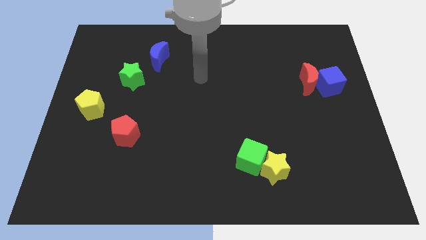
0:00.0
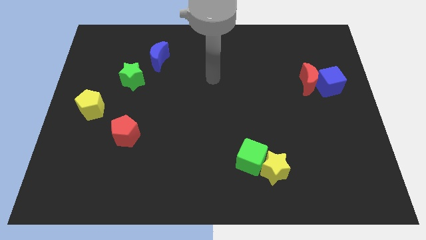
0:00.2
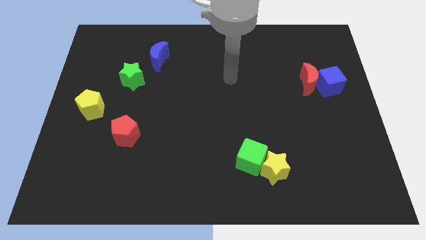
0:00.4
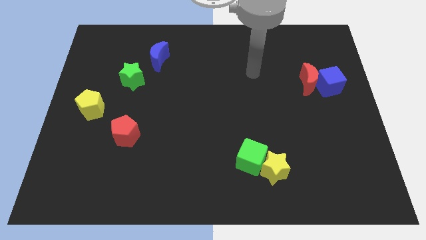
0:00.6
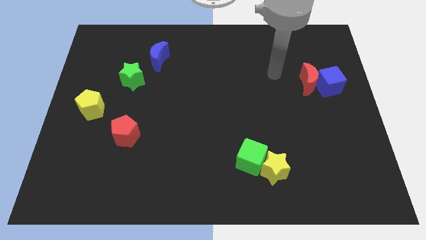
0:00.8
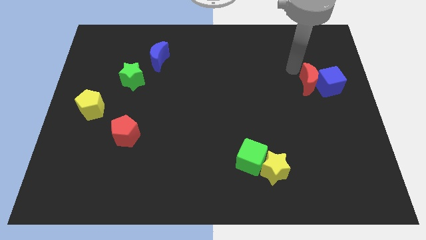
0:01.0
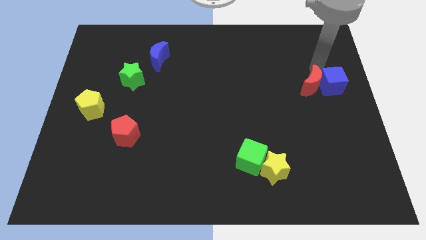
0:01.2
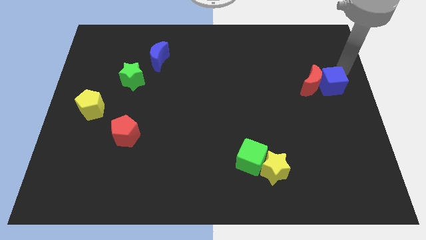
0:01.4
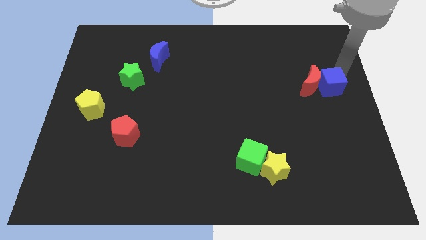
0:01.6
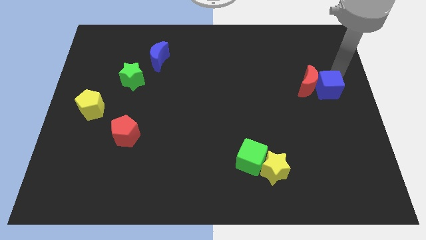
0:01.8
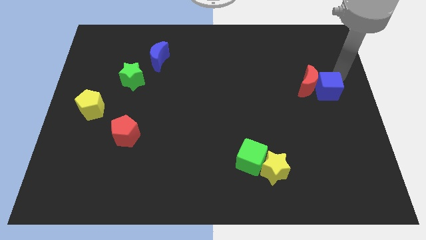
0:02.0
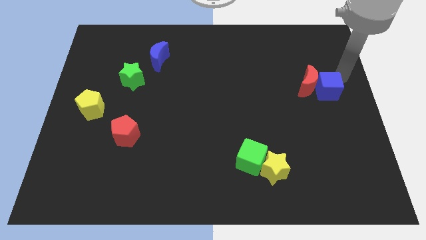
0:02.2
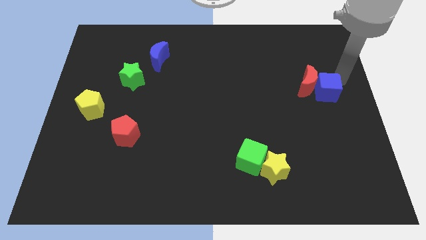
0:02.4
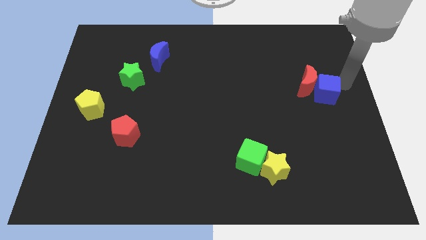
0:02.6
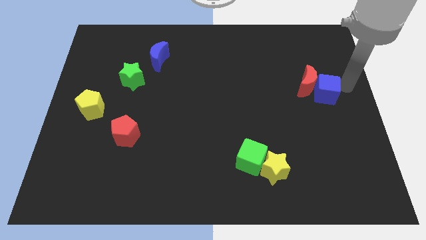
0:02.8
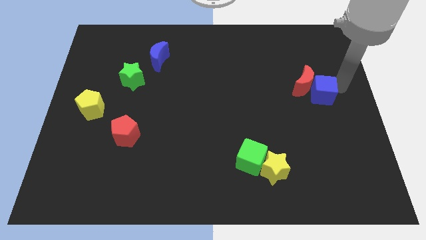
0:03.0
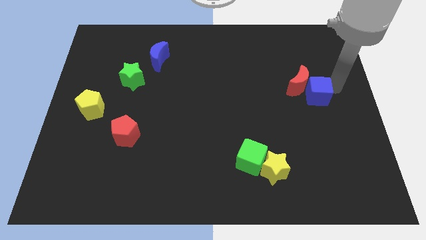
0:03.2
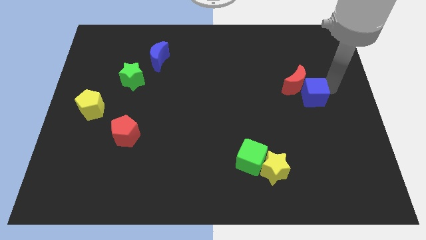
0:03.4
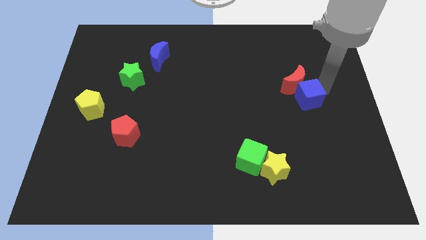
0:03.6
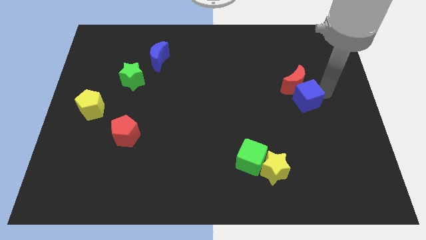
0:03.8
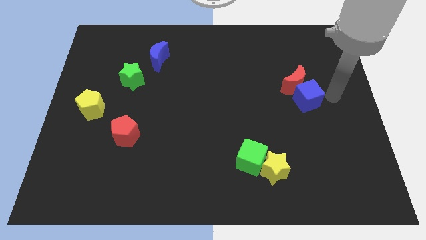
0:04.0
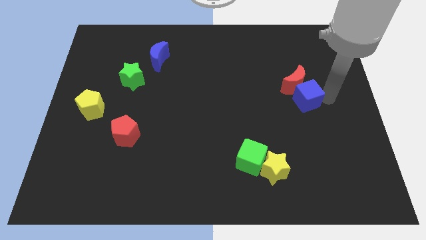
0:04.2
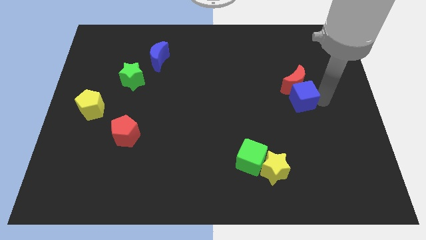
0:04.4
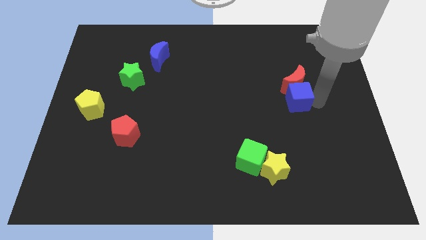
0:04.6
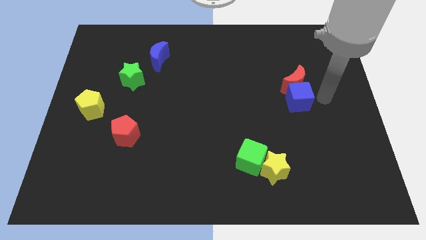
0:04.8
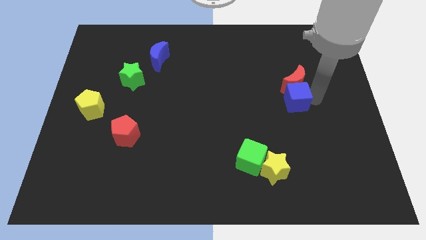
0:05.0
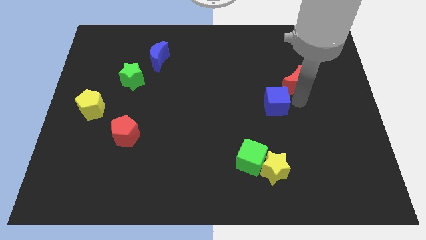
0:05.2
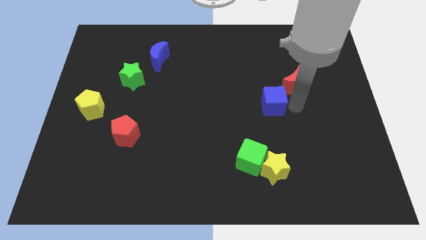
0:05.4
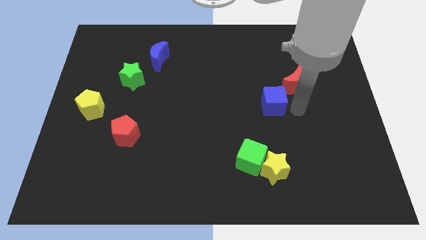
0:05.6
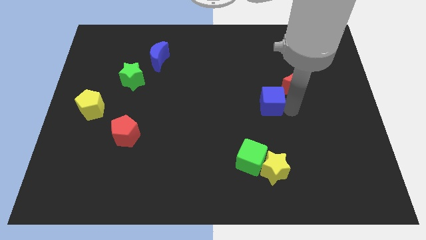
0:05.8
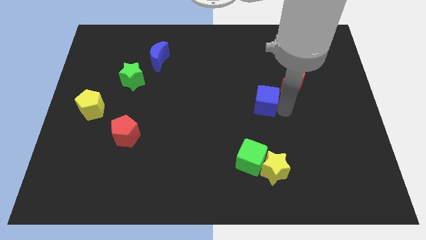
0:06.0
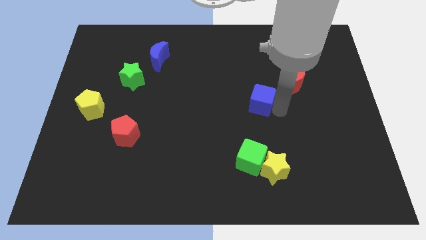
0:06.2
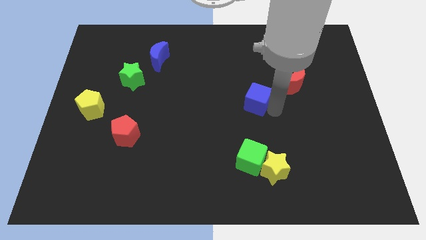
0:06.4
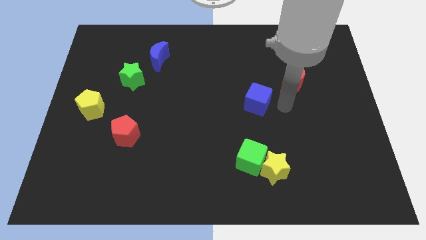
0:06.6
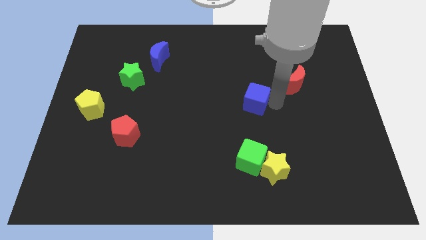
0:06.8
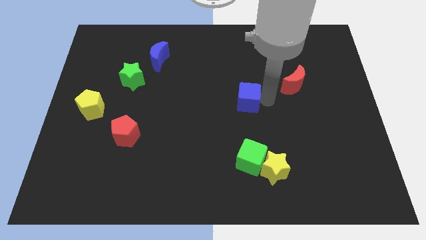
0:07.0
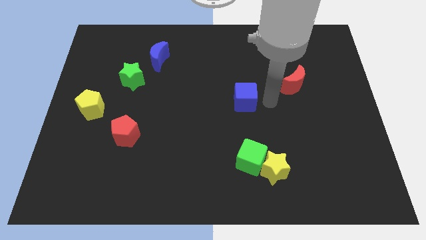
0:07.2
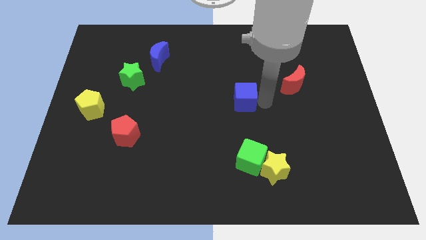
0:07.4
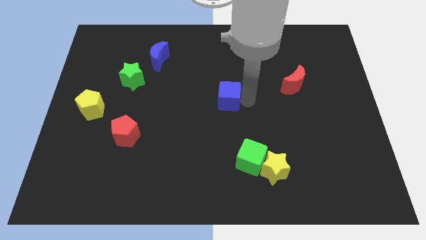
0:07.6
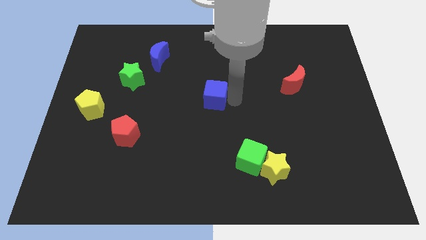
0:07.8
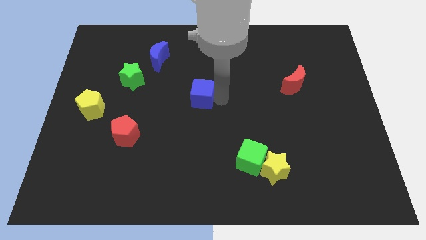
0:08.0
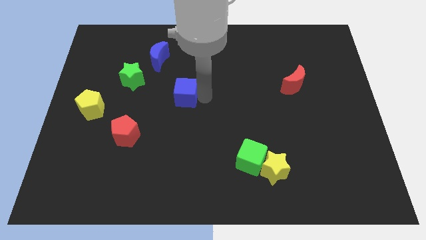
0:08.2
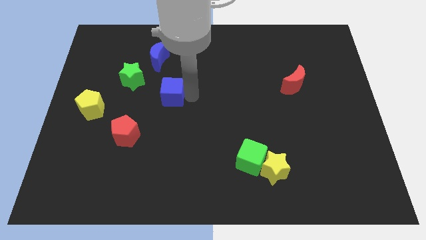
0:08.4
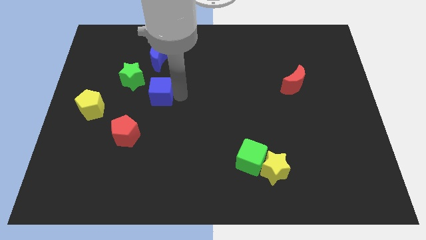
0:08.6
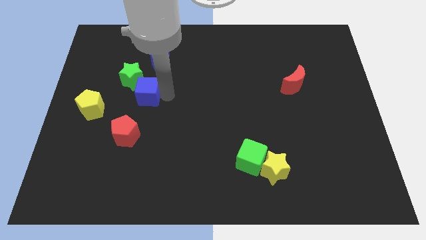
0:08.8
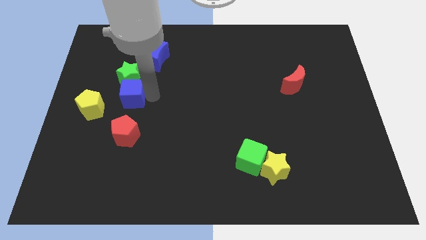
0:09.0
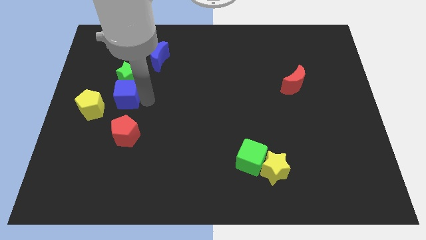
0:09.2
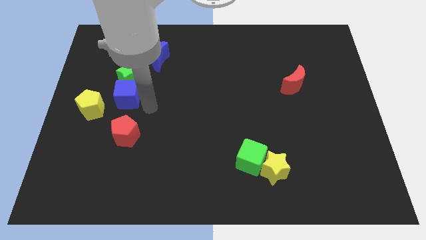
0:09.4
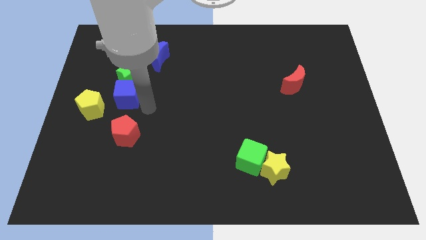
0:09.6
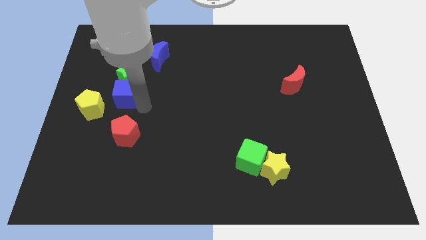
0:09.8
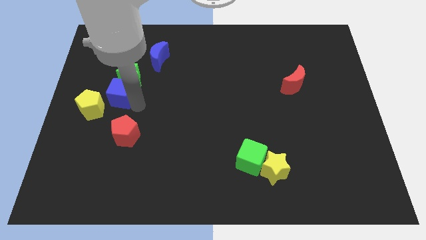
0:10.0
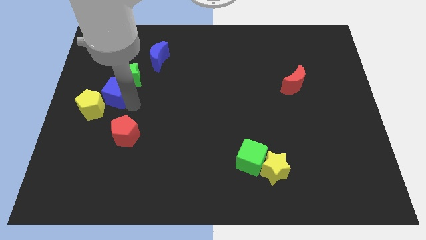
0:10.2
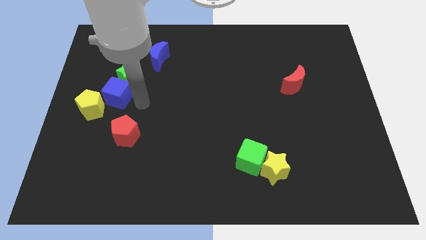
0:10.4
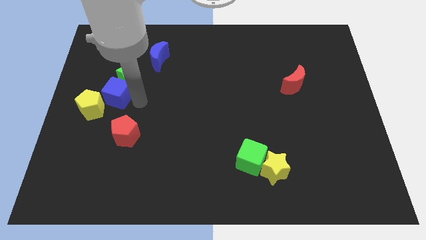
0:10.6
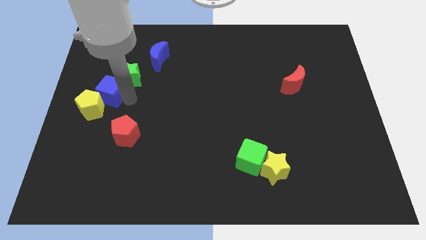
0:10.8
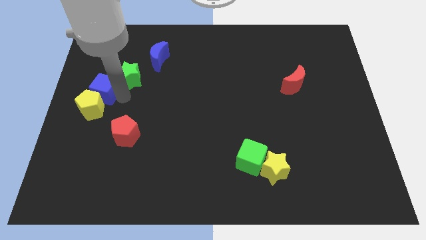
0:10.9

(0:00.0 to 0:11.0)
push the blue cube to the left side of the board

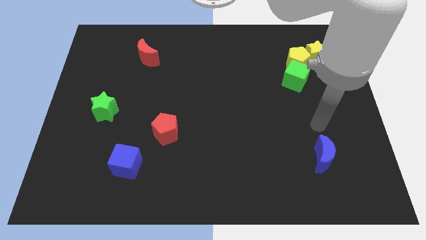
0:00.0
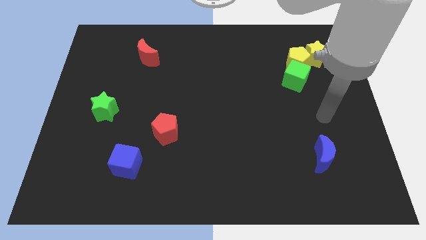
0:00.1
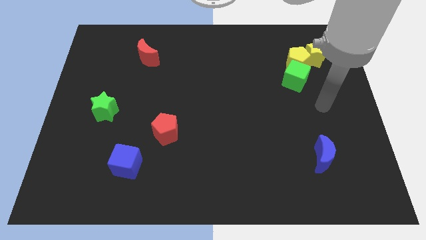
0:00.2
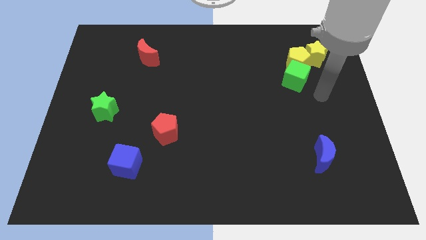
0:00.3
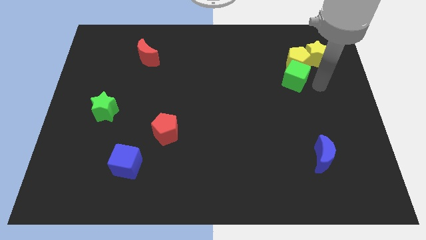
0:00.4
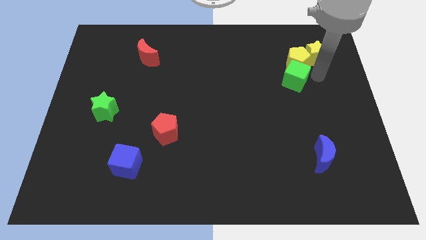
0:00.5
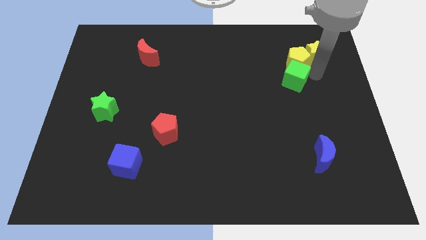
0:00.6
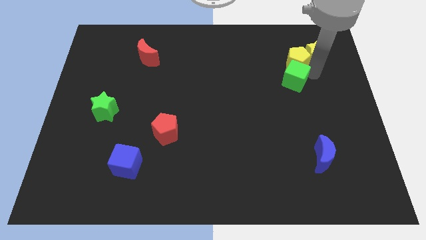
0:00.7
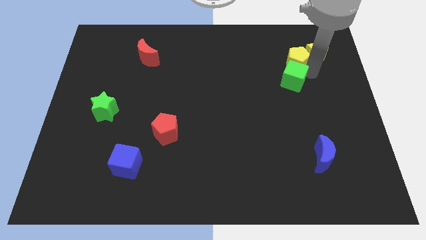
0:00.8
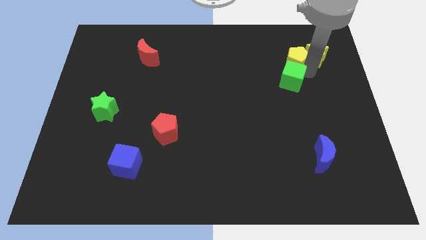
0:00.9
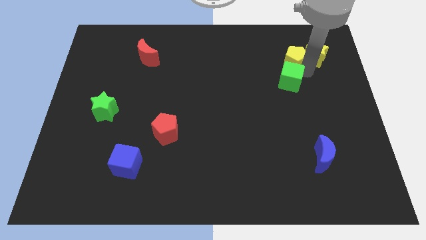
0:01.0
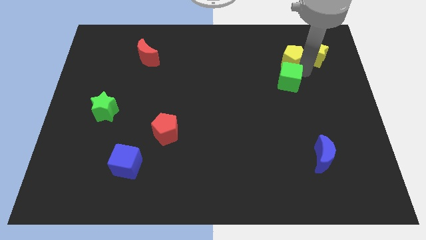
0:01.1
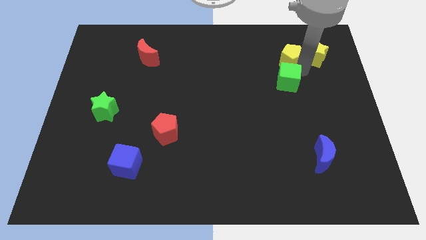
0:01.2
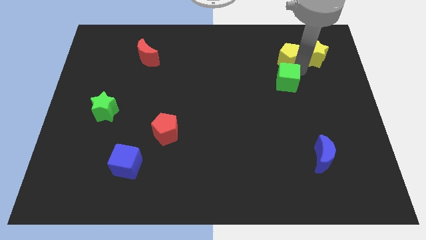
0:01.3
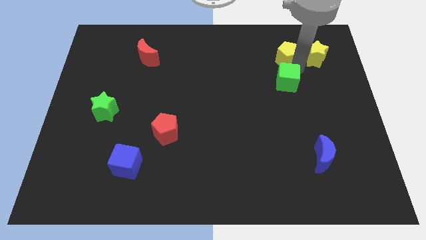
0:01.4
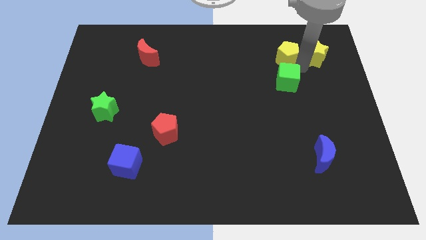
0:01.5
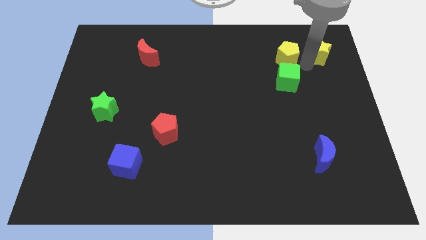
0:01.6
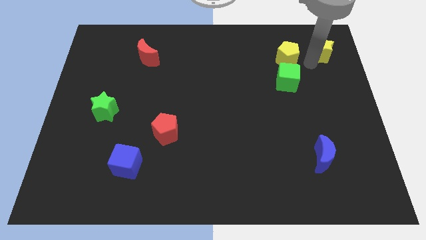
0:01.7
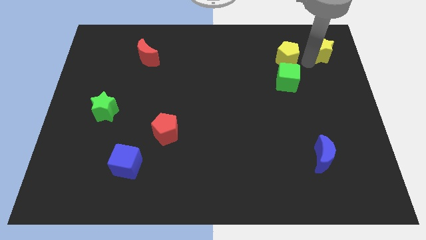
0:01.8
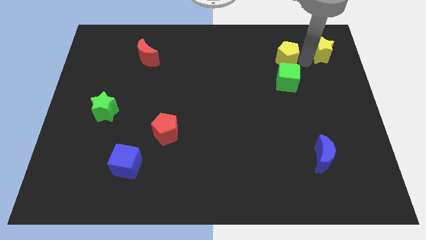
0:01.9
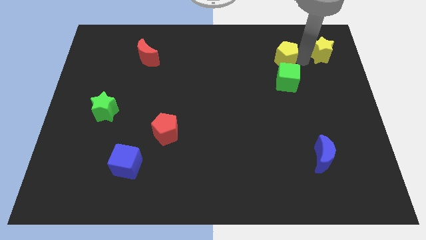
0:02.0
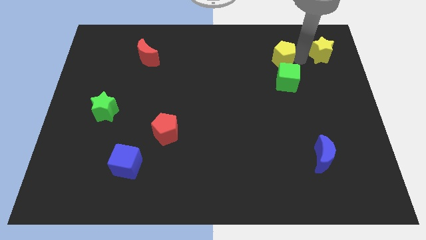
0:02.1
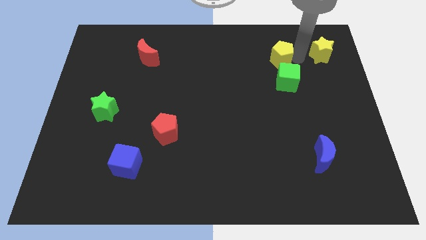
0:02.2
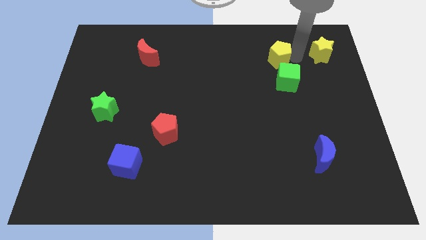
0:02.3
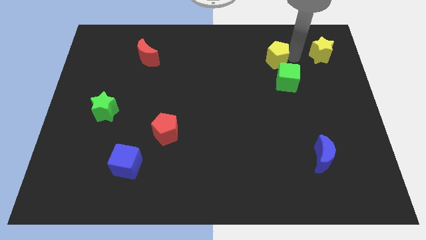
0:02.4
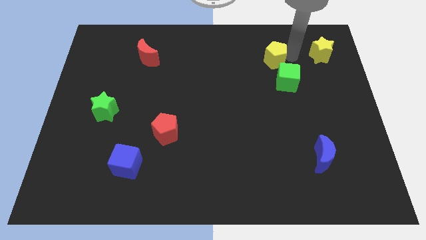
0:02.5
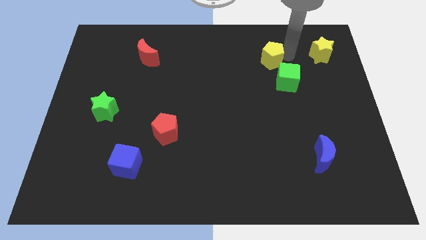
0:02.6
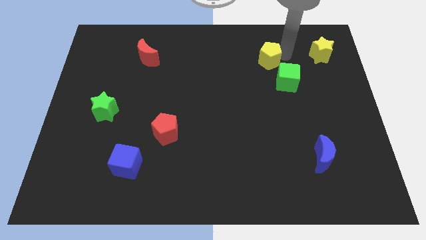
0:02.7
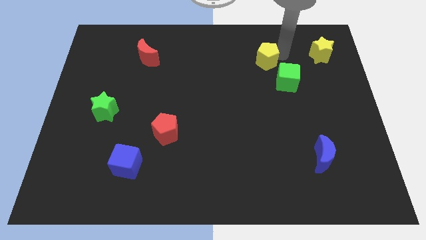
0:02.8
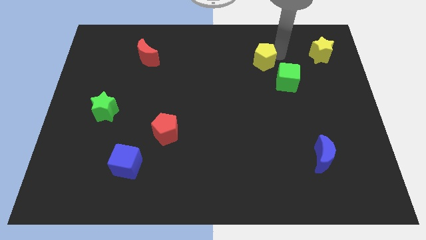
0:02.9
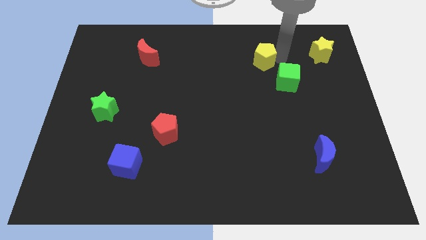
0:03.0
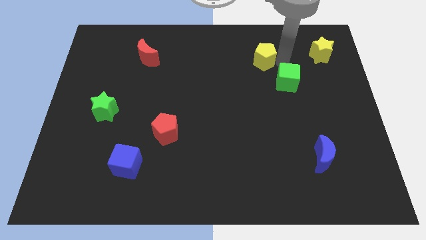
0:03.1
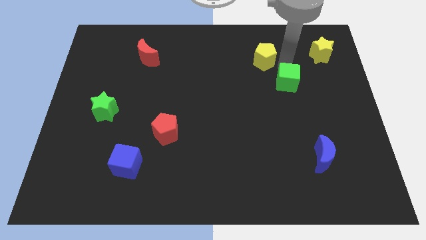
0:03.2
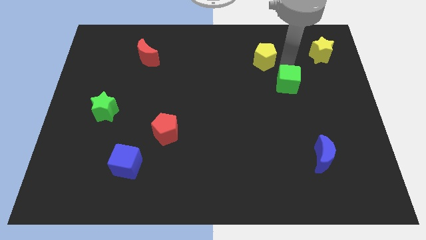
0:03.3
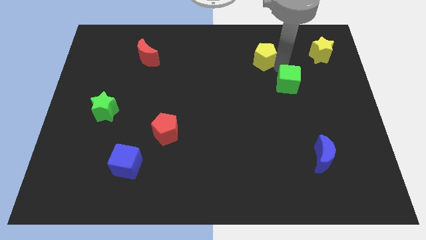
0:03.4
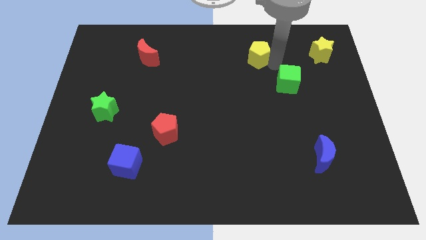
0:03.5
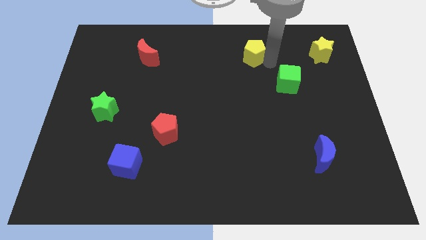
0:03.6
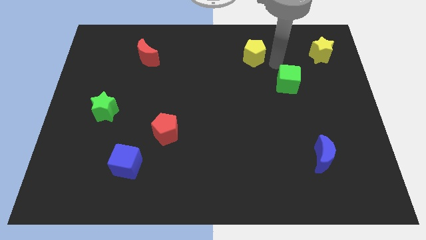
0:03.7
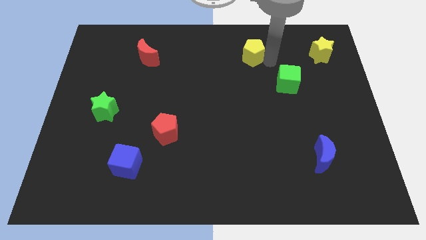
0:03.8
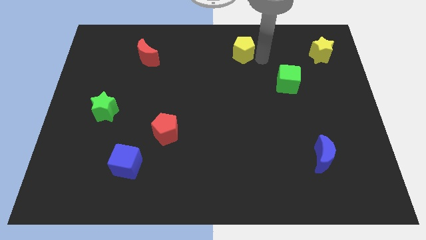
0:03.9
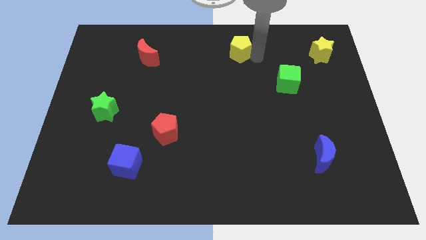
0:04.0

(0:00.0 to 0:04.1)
move the yellow pentagon to the top side
